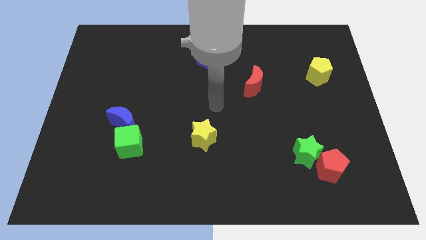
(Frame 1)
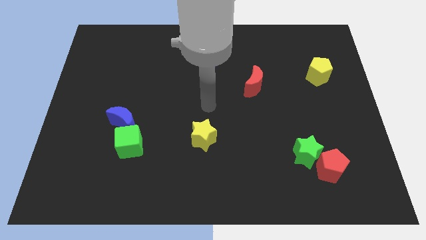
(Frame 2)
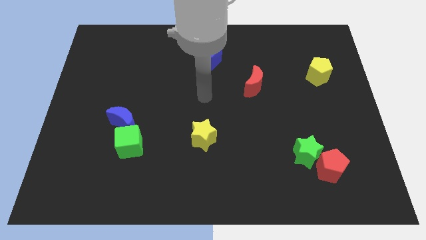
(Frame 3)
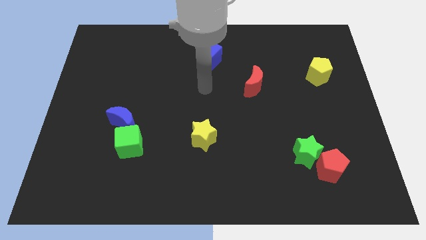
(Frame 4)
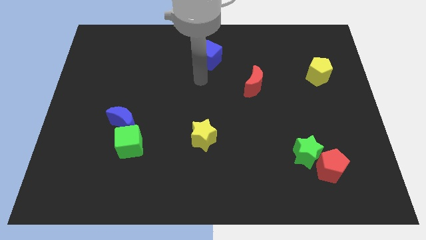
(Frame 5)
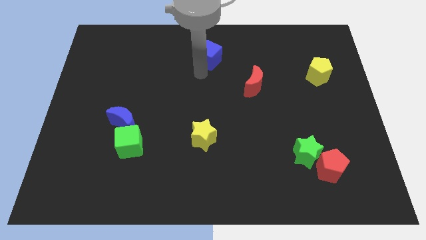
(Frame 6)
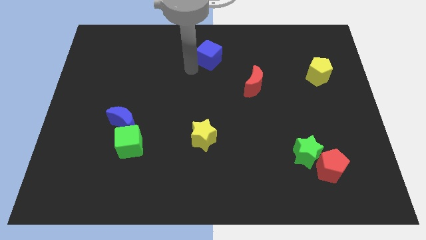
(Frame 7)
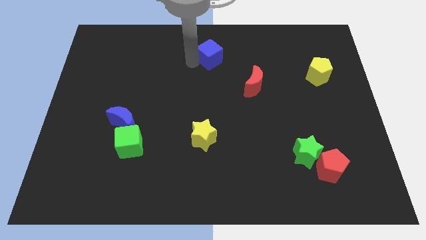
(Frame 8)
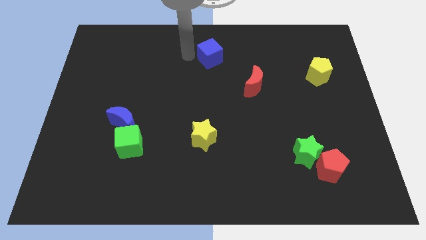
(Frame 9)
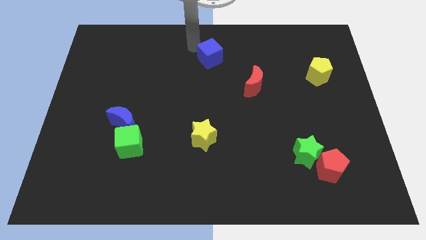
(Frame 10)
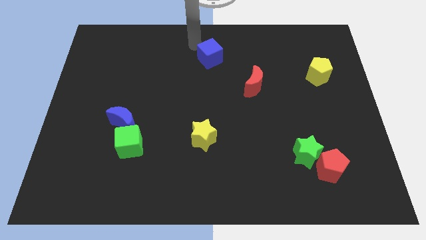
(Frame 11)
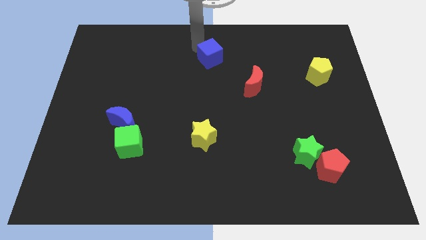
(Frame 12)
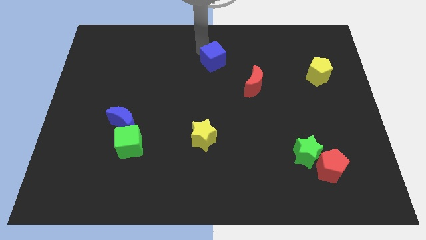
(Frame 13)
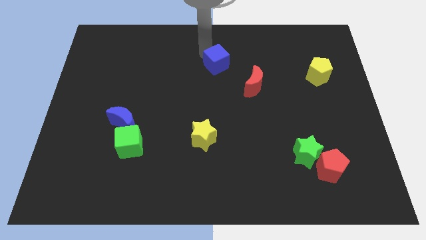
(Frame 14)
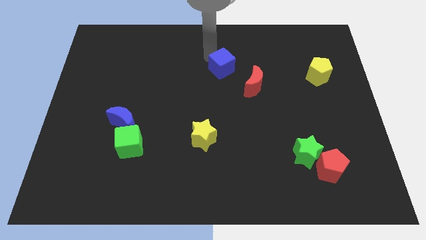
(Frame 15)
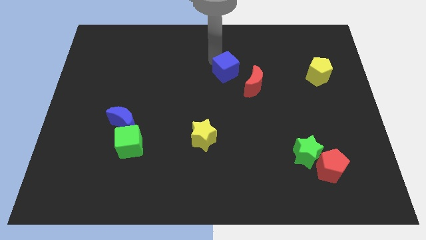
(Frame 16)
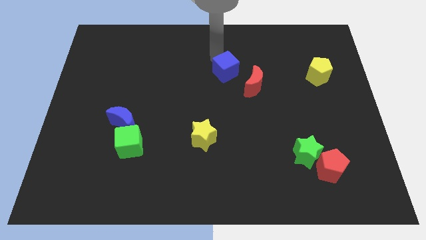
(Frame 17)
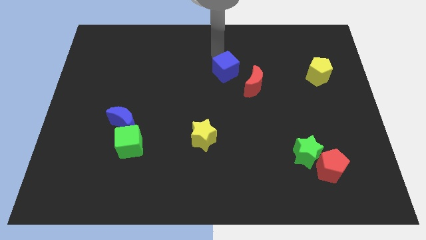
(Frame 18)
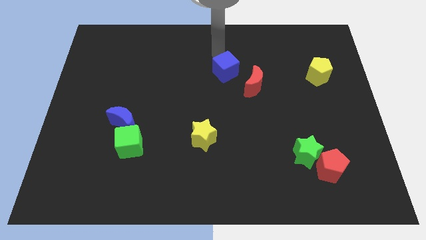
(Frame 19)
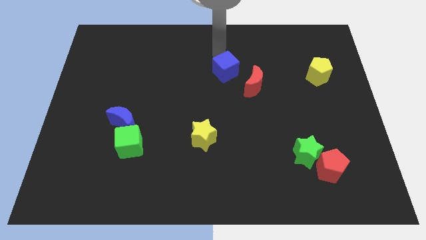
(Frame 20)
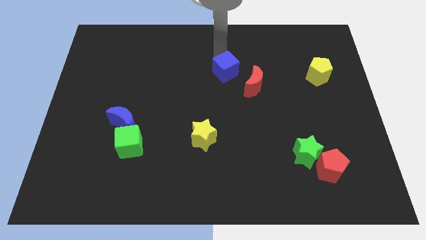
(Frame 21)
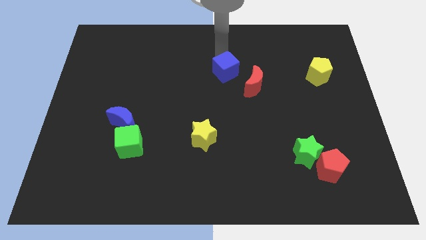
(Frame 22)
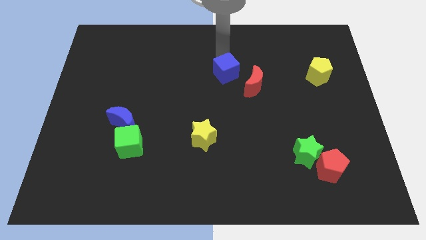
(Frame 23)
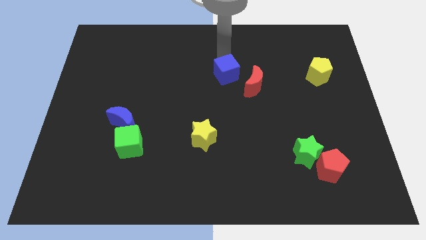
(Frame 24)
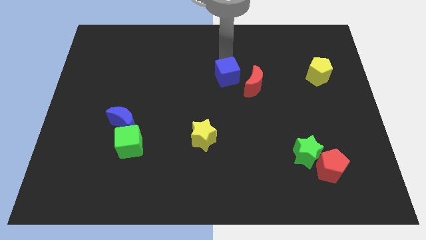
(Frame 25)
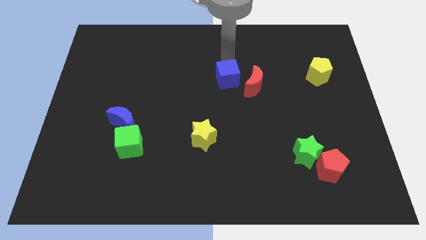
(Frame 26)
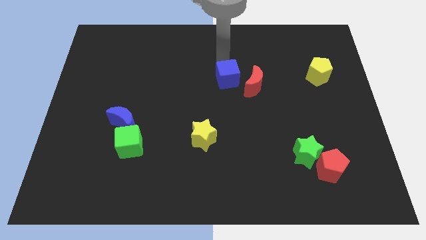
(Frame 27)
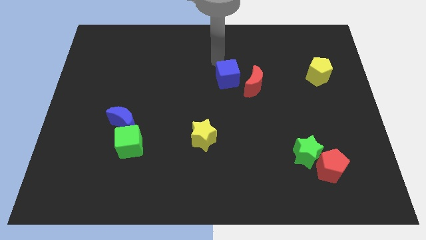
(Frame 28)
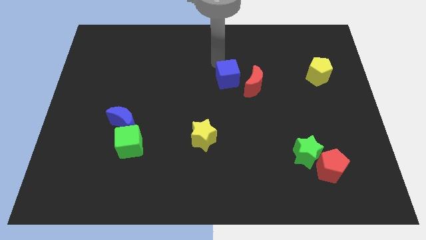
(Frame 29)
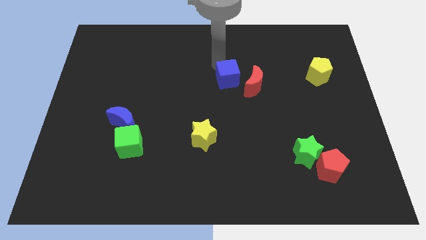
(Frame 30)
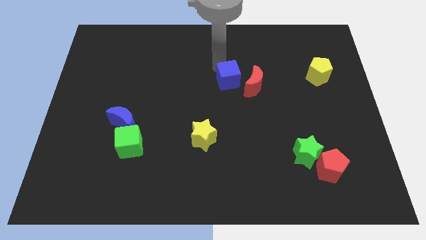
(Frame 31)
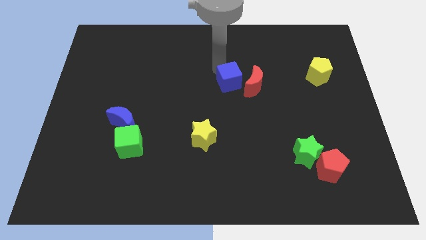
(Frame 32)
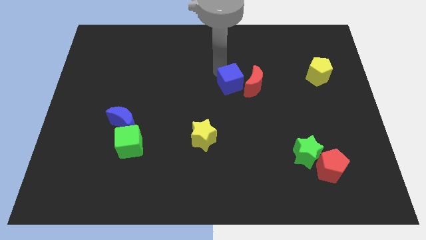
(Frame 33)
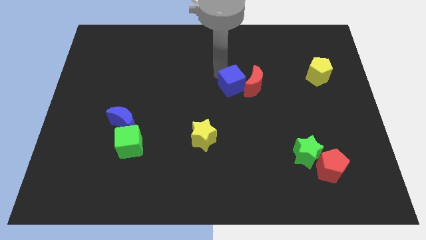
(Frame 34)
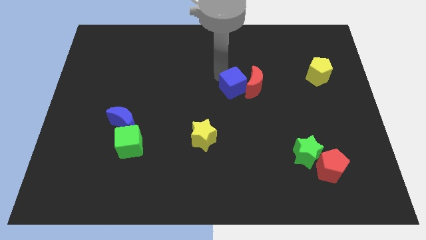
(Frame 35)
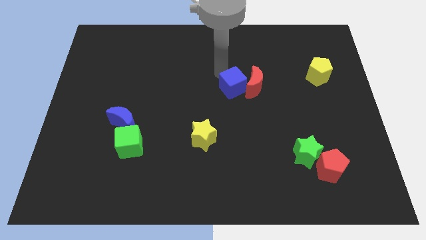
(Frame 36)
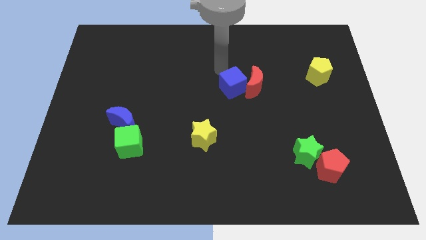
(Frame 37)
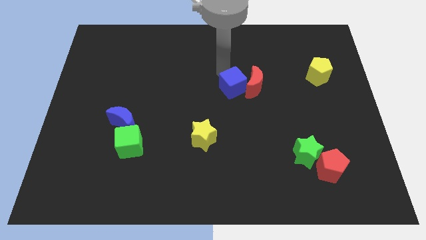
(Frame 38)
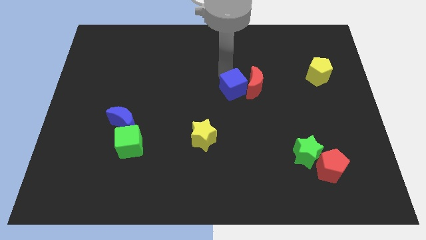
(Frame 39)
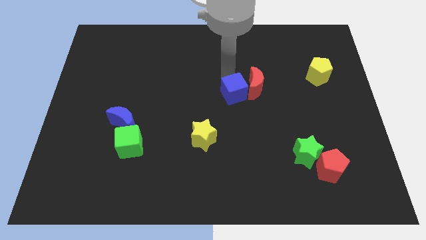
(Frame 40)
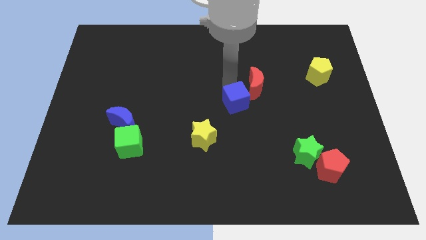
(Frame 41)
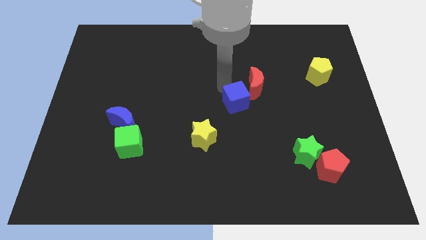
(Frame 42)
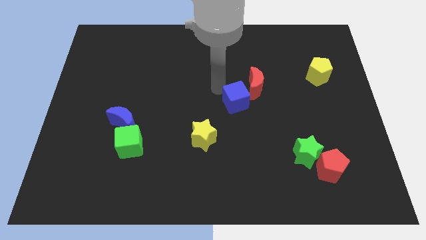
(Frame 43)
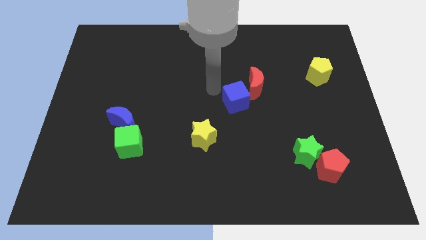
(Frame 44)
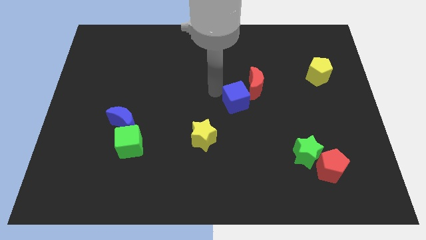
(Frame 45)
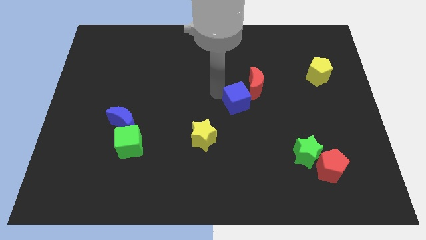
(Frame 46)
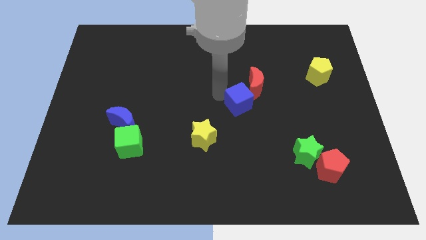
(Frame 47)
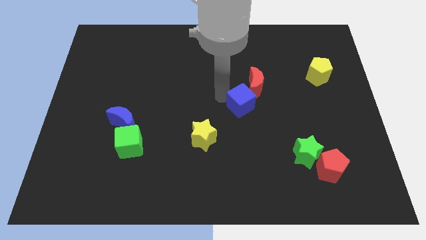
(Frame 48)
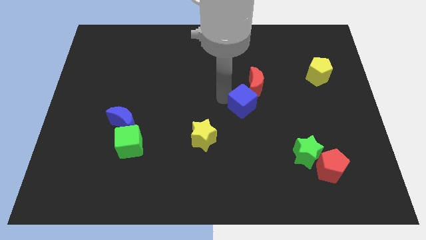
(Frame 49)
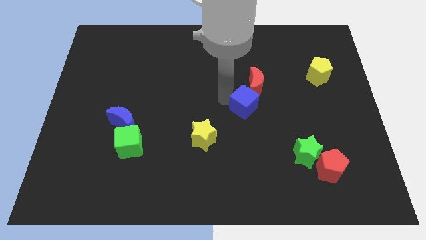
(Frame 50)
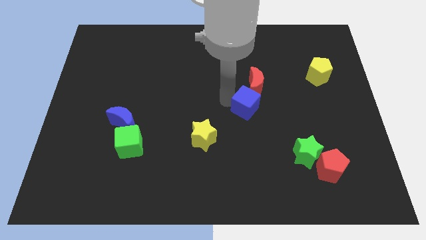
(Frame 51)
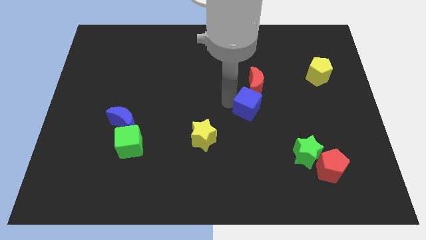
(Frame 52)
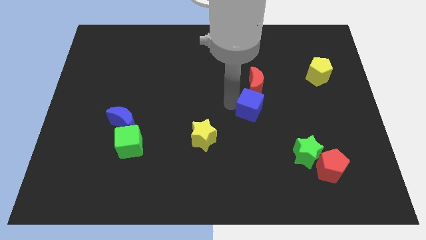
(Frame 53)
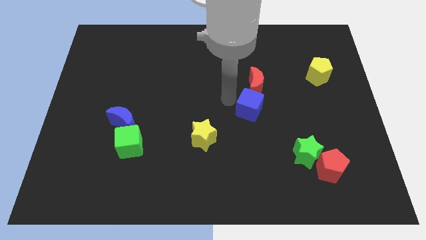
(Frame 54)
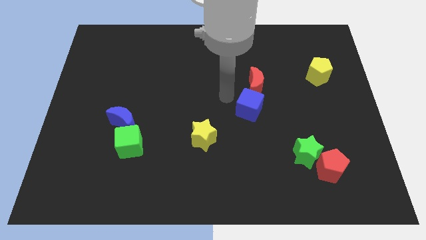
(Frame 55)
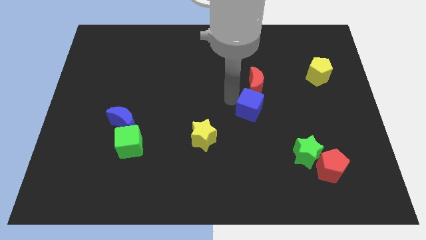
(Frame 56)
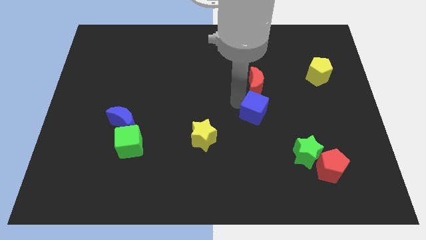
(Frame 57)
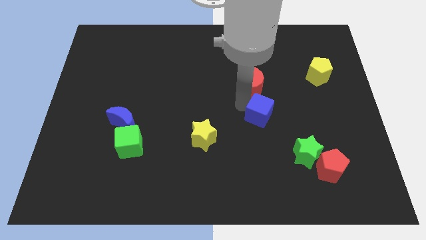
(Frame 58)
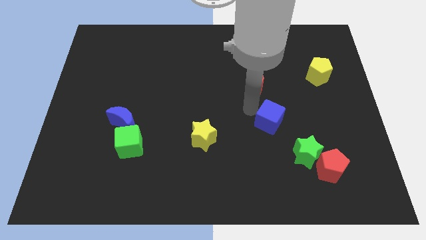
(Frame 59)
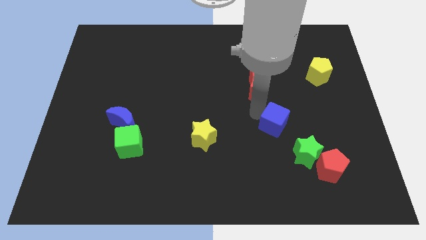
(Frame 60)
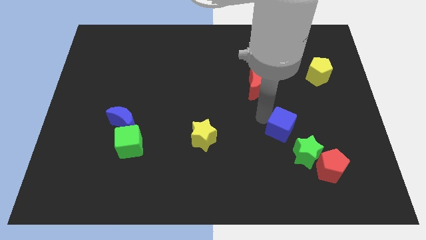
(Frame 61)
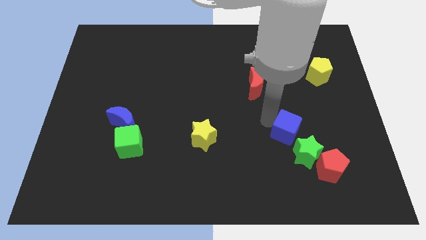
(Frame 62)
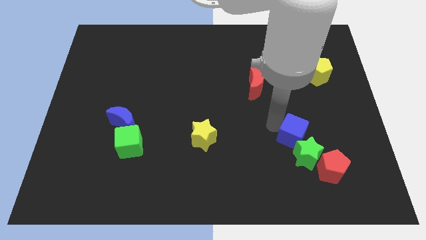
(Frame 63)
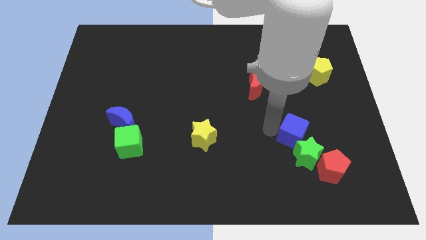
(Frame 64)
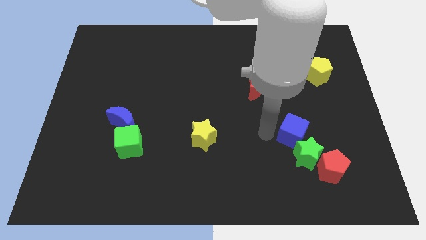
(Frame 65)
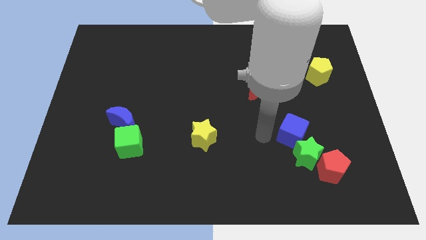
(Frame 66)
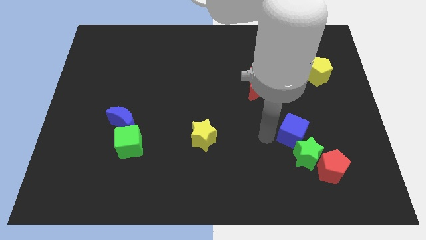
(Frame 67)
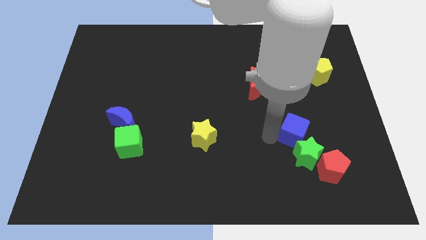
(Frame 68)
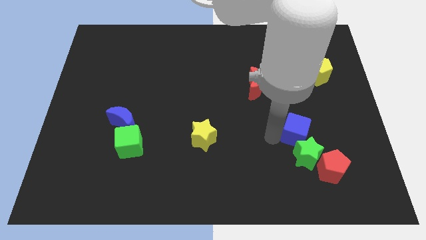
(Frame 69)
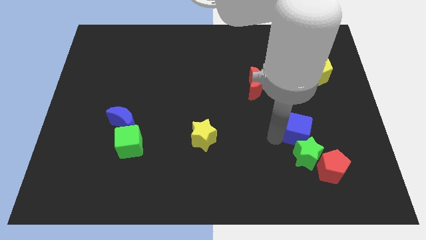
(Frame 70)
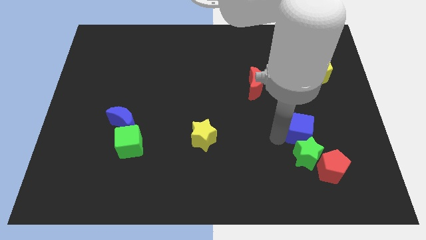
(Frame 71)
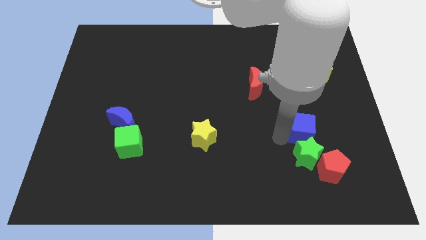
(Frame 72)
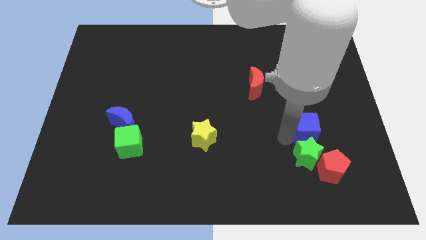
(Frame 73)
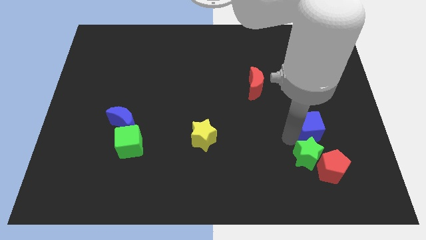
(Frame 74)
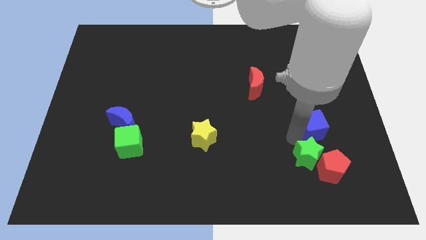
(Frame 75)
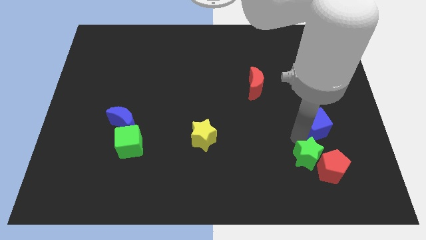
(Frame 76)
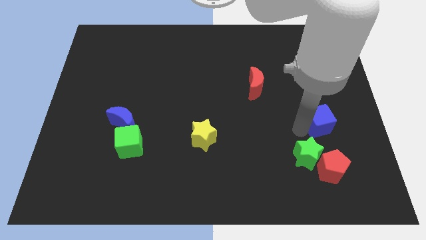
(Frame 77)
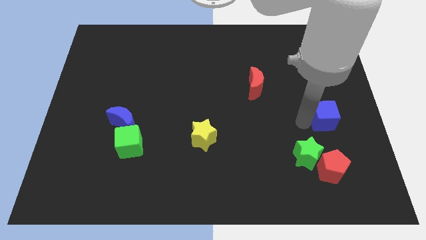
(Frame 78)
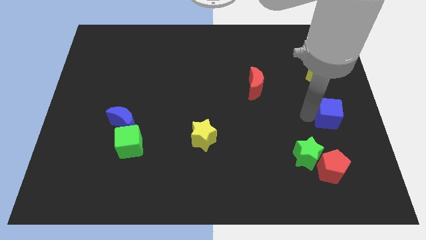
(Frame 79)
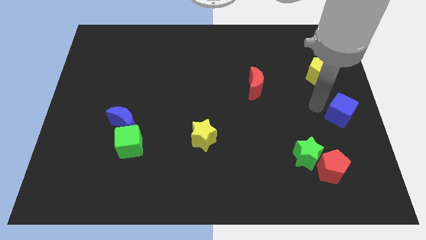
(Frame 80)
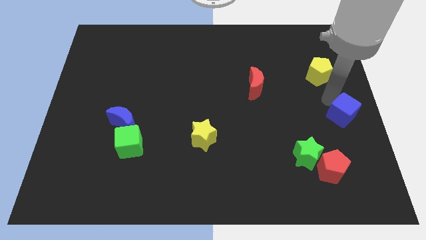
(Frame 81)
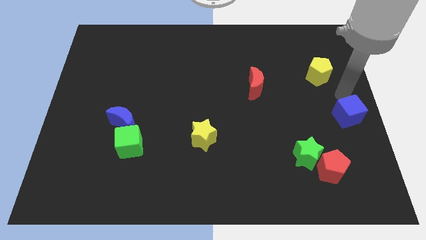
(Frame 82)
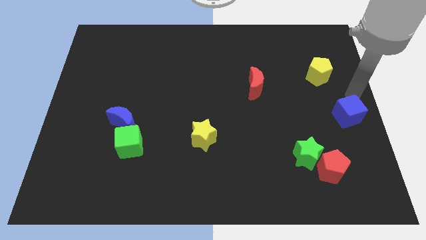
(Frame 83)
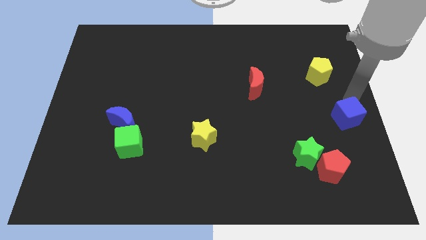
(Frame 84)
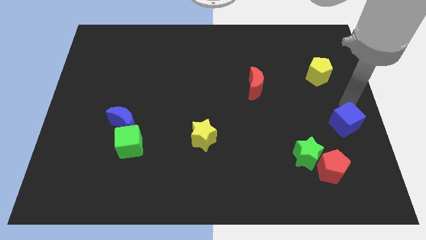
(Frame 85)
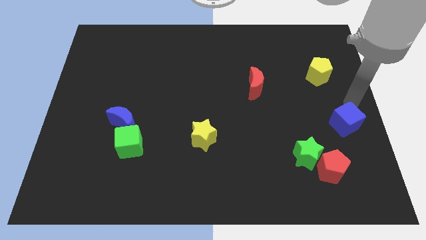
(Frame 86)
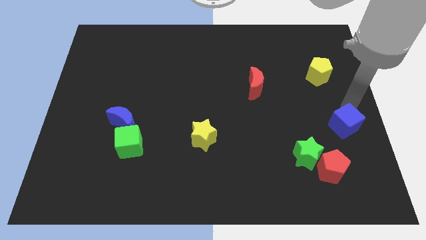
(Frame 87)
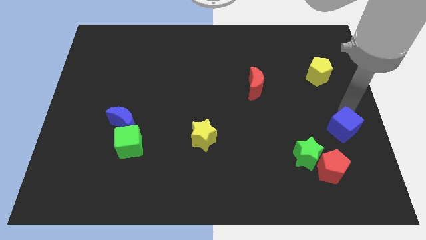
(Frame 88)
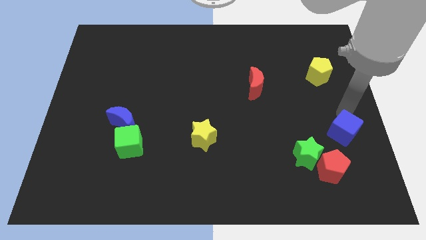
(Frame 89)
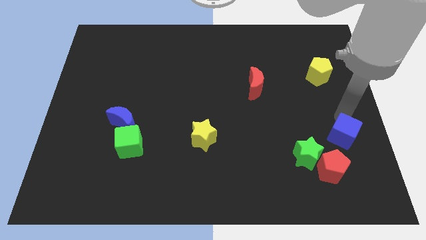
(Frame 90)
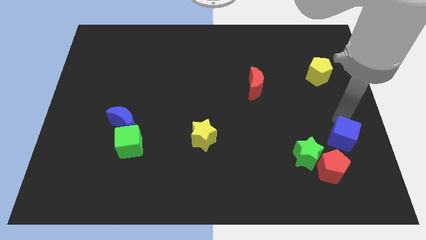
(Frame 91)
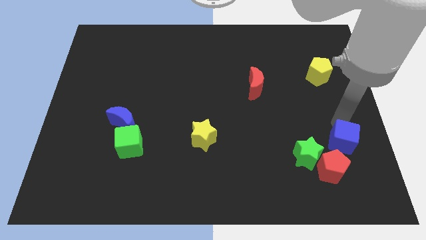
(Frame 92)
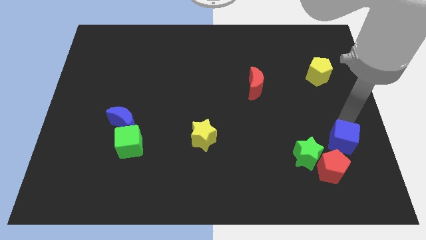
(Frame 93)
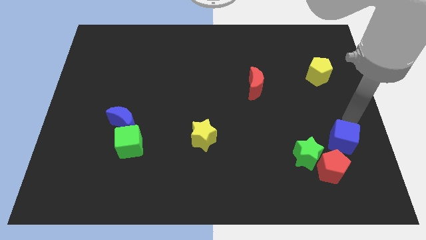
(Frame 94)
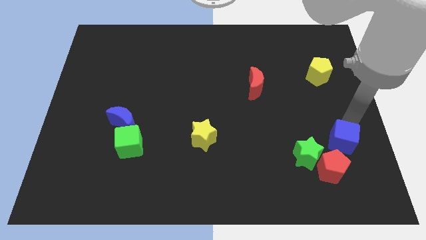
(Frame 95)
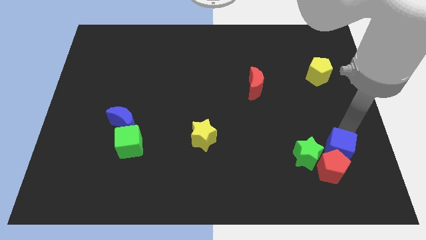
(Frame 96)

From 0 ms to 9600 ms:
put the blue cube to the red pentagon
